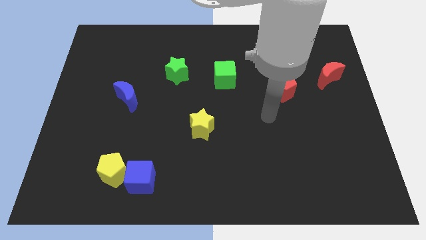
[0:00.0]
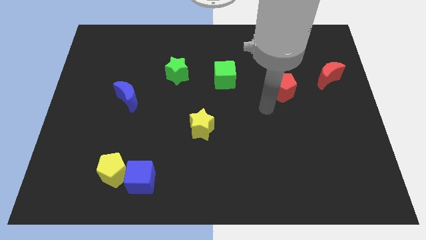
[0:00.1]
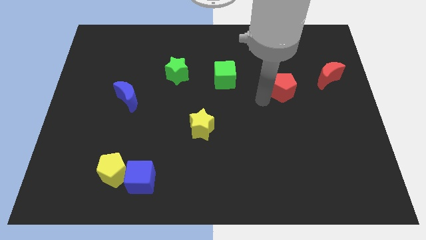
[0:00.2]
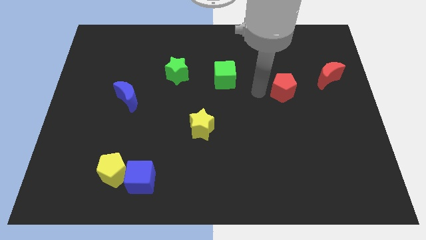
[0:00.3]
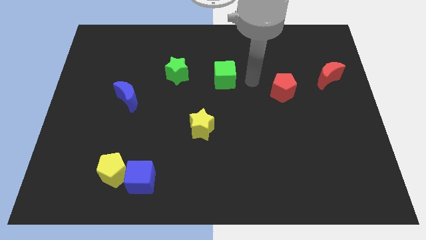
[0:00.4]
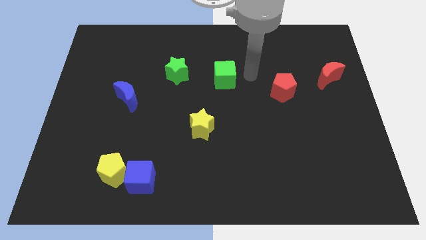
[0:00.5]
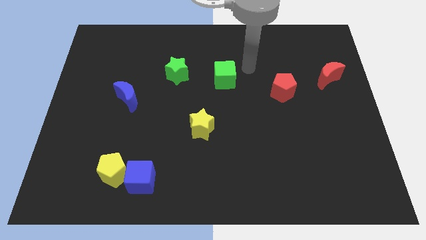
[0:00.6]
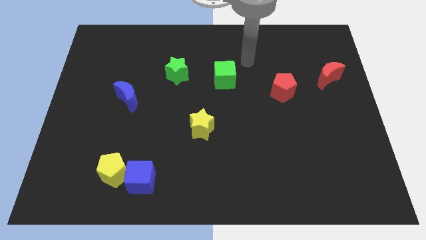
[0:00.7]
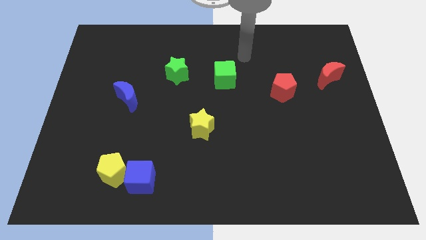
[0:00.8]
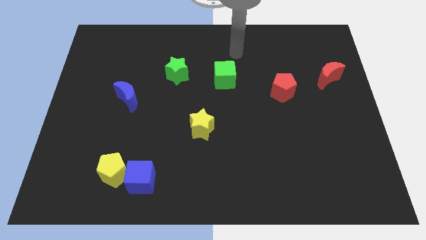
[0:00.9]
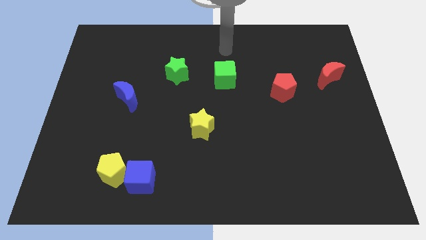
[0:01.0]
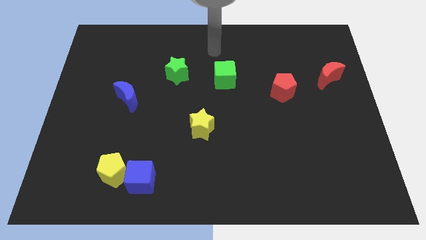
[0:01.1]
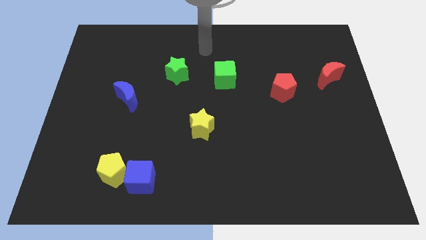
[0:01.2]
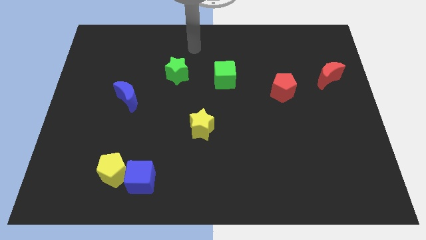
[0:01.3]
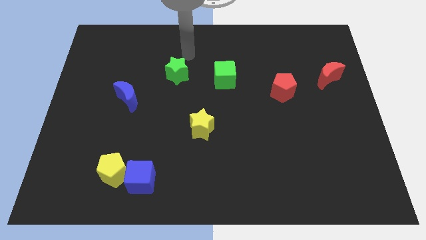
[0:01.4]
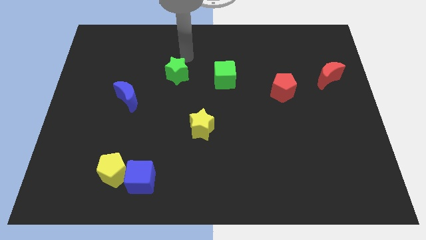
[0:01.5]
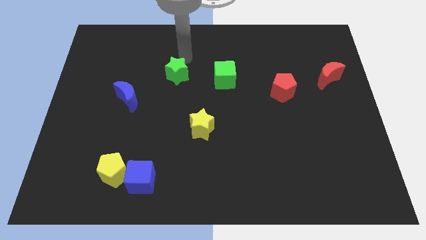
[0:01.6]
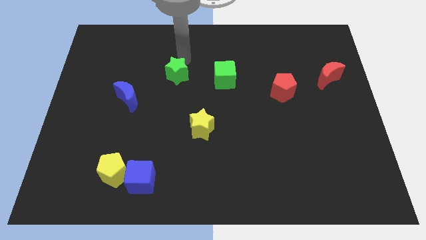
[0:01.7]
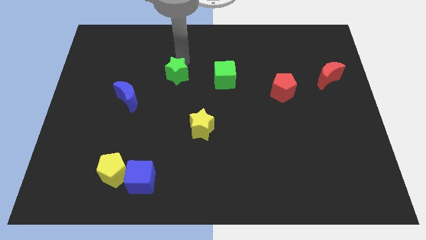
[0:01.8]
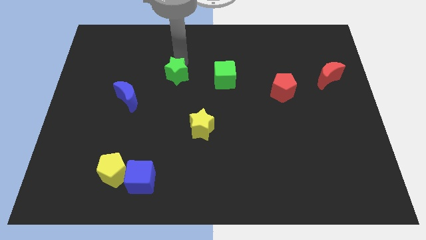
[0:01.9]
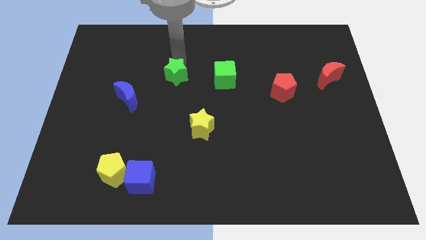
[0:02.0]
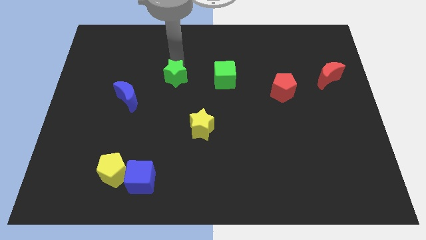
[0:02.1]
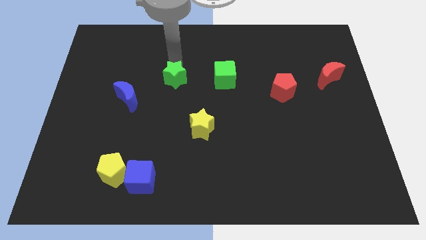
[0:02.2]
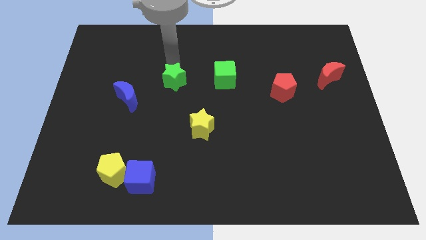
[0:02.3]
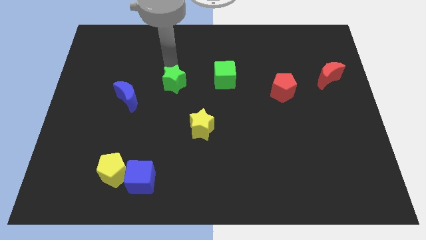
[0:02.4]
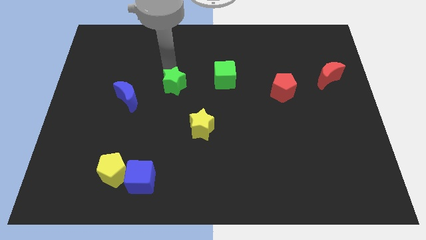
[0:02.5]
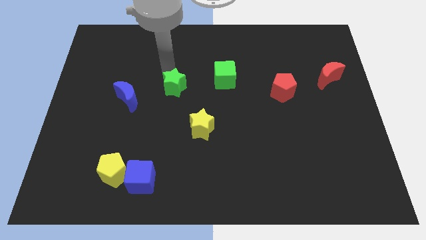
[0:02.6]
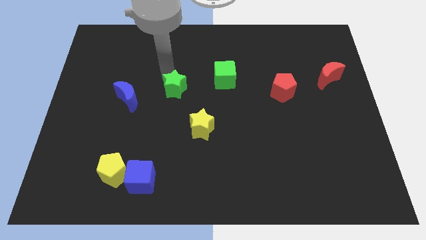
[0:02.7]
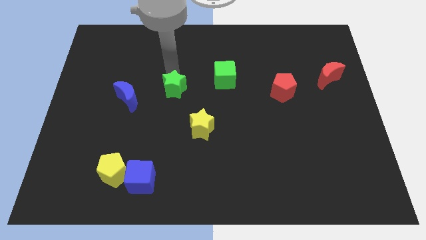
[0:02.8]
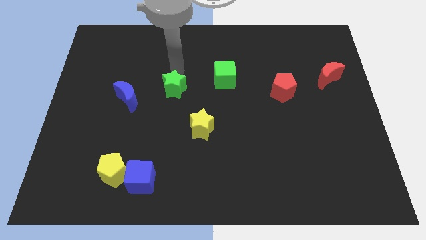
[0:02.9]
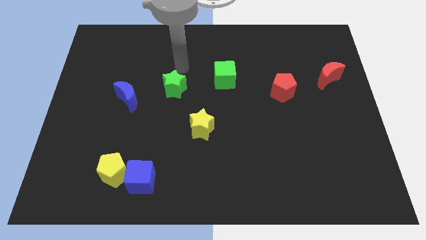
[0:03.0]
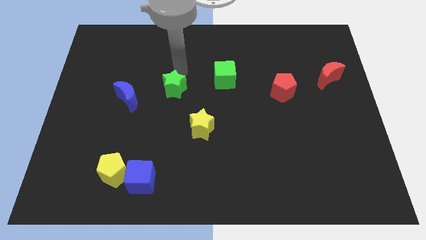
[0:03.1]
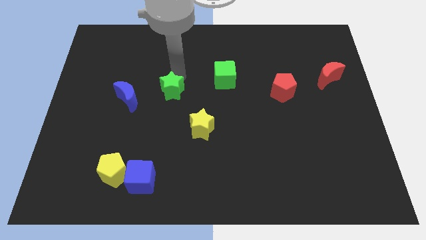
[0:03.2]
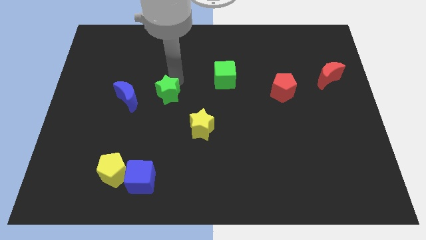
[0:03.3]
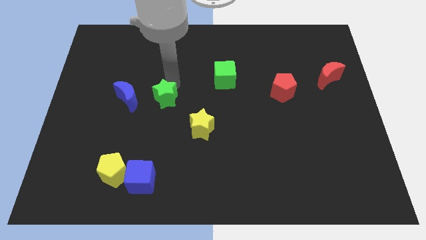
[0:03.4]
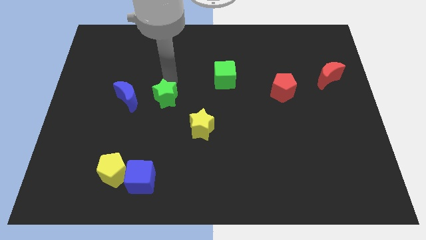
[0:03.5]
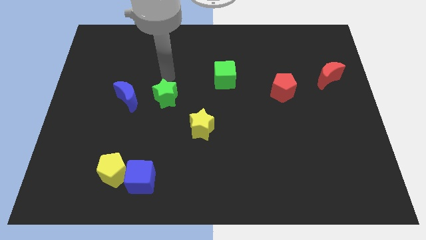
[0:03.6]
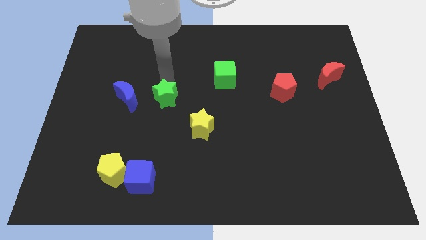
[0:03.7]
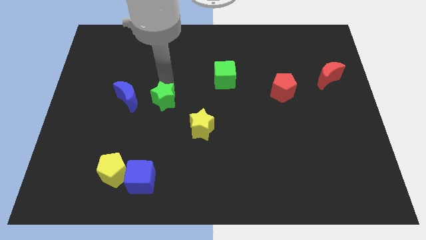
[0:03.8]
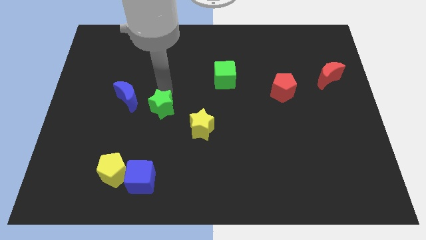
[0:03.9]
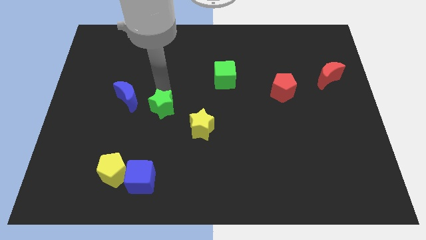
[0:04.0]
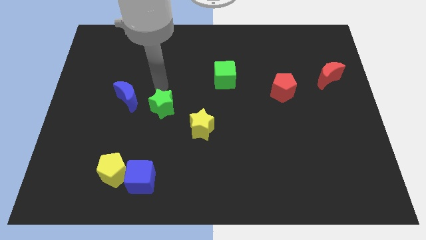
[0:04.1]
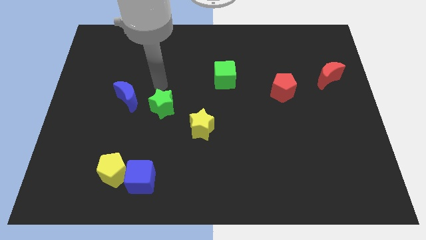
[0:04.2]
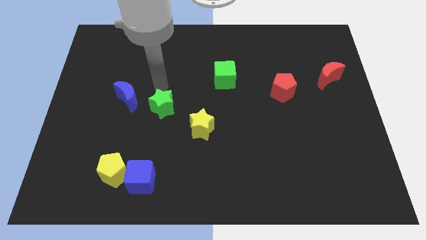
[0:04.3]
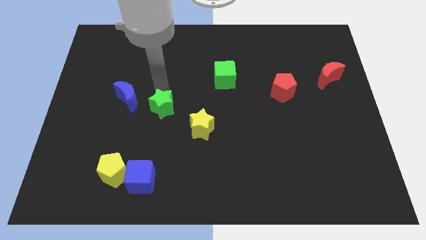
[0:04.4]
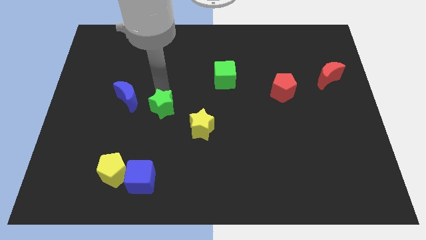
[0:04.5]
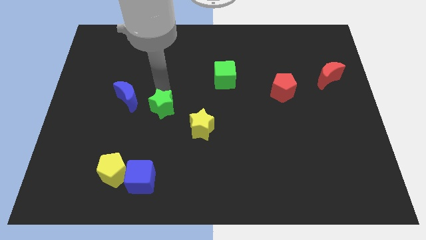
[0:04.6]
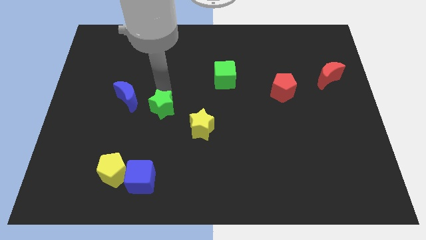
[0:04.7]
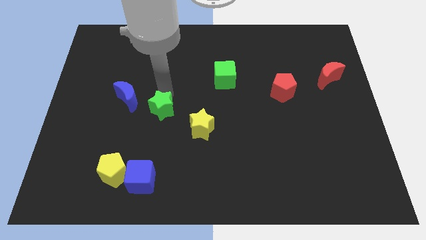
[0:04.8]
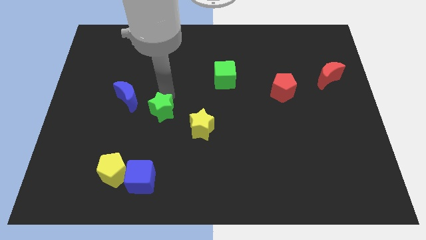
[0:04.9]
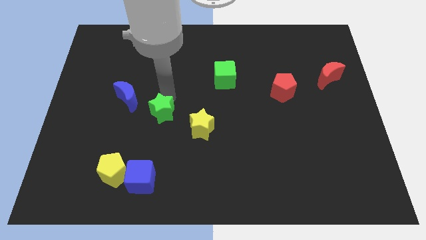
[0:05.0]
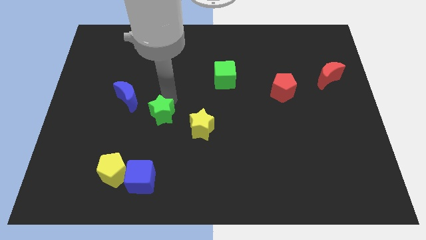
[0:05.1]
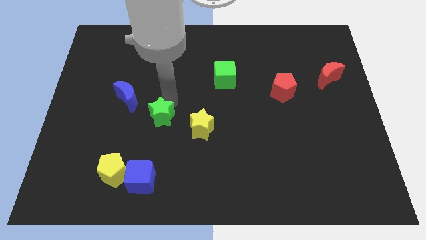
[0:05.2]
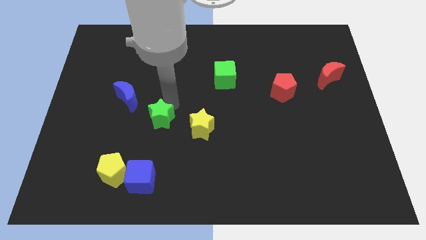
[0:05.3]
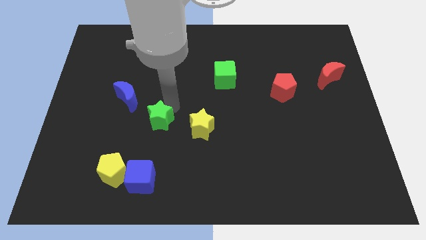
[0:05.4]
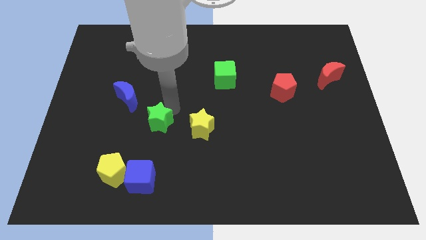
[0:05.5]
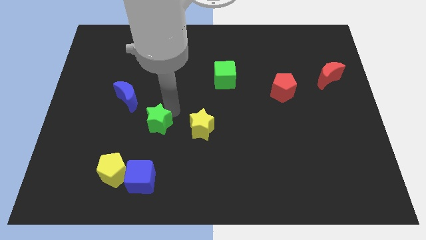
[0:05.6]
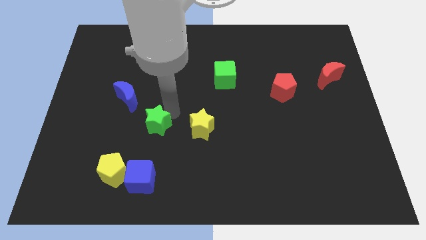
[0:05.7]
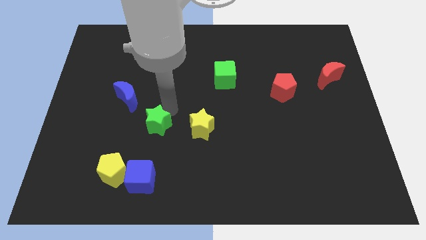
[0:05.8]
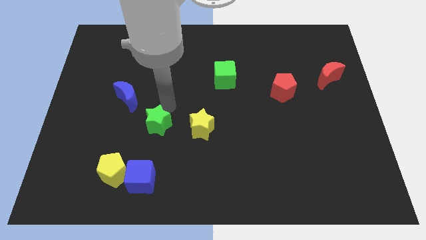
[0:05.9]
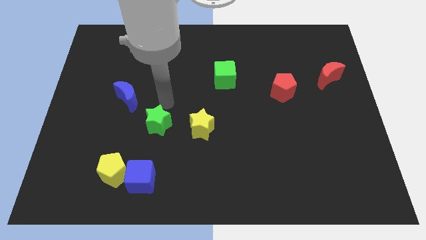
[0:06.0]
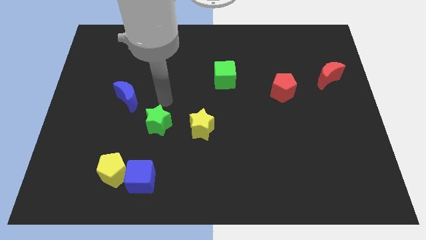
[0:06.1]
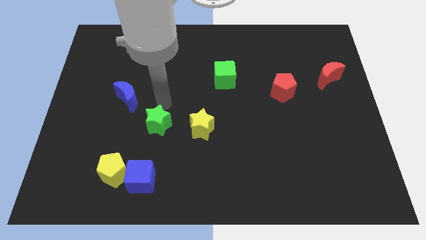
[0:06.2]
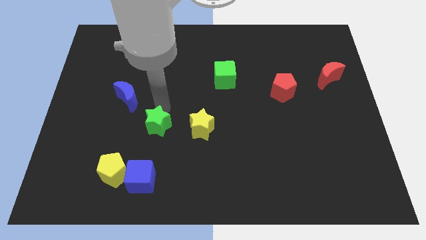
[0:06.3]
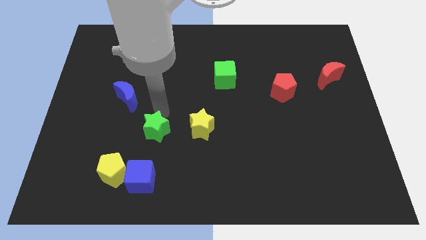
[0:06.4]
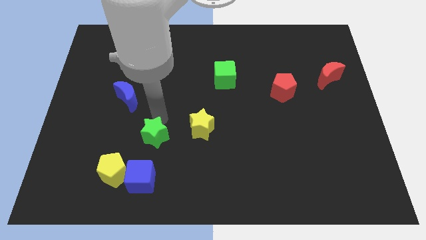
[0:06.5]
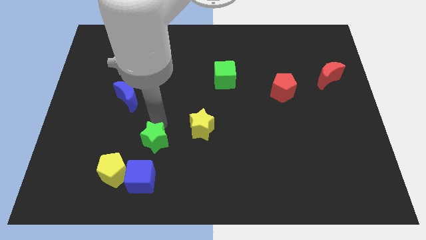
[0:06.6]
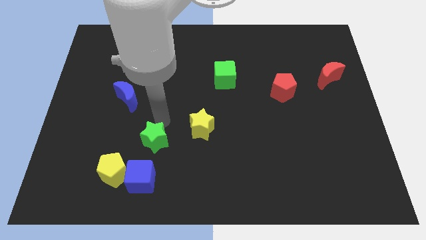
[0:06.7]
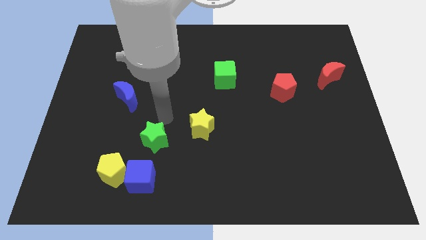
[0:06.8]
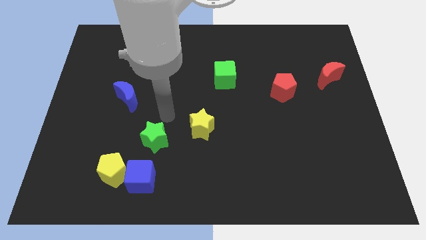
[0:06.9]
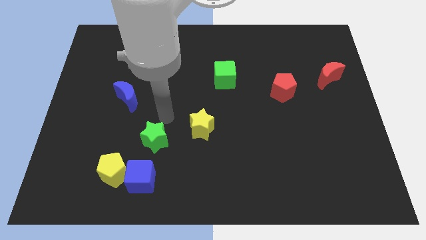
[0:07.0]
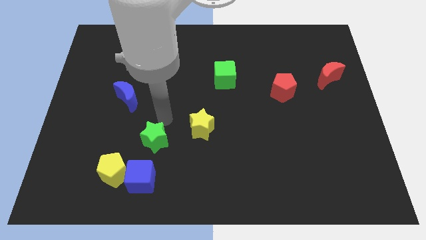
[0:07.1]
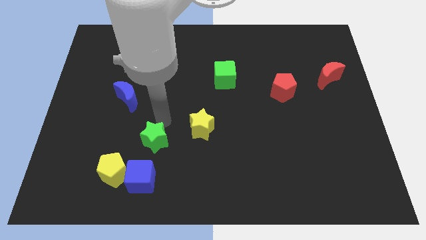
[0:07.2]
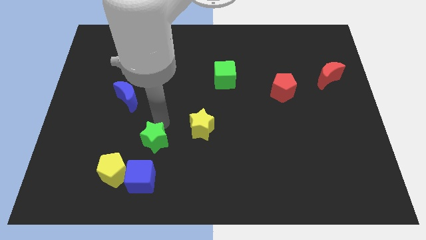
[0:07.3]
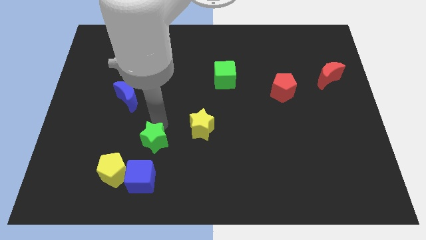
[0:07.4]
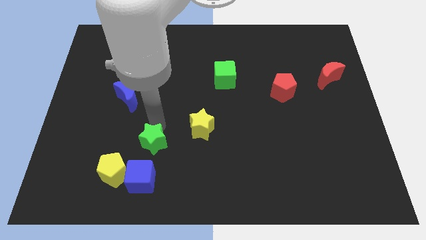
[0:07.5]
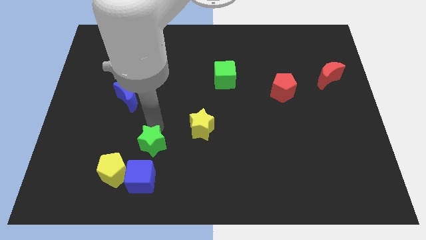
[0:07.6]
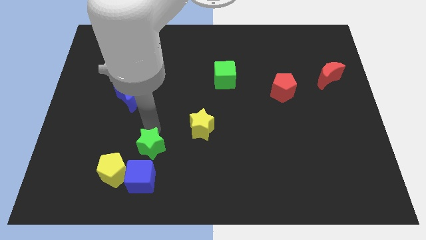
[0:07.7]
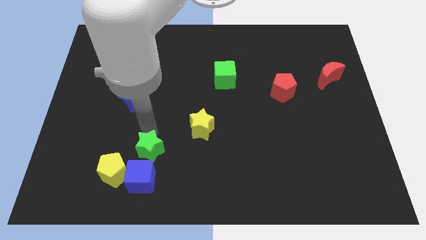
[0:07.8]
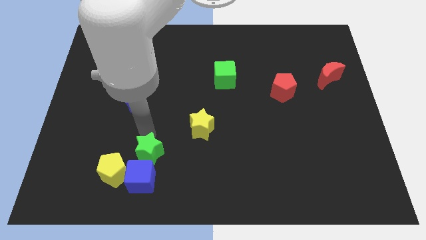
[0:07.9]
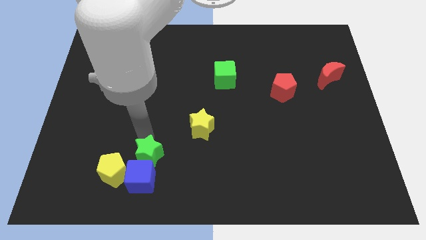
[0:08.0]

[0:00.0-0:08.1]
slide the green star to the blue cube
